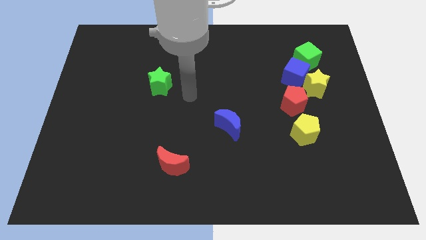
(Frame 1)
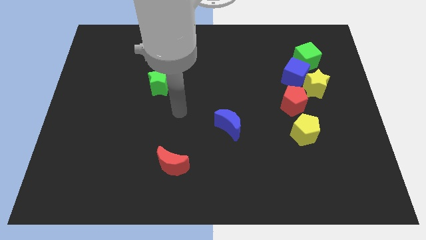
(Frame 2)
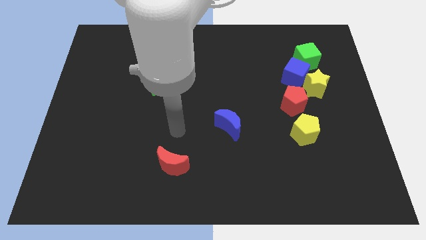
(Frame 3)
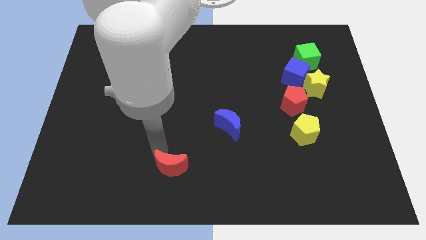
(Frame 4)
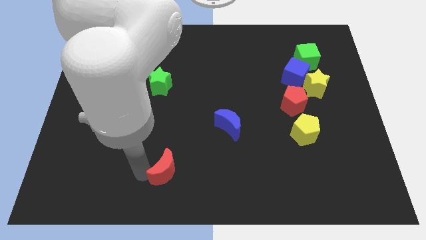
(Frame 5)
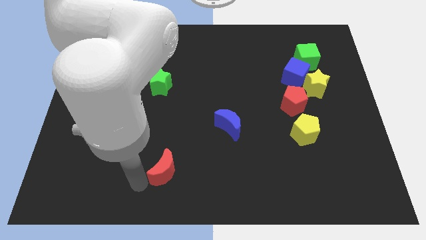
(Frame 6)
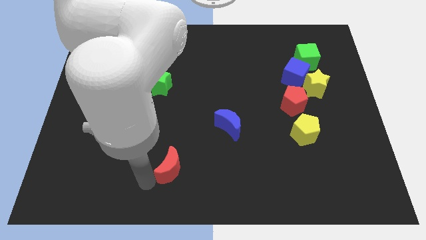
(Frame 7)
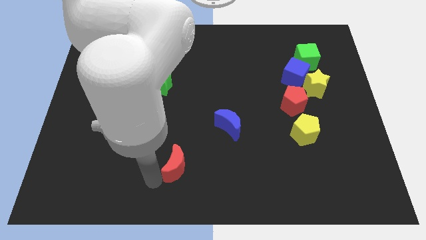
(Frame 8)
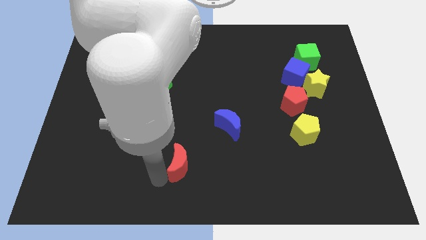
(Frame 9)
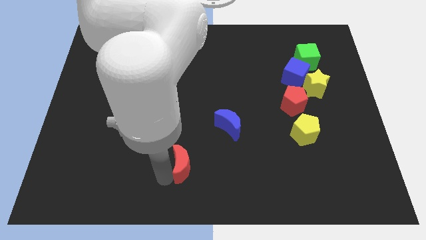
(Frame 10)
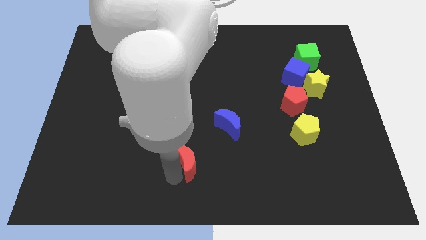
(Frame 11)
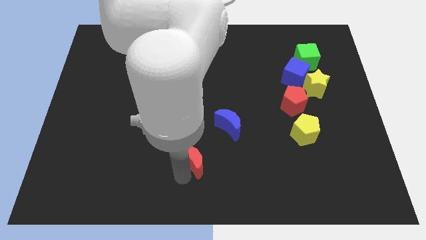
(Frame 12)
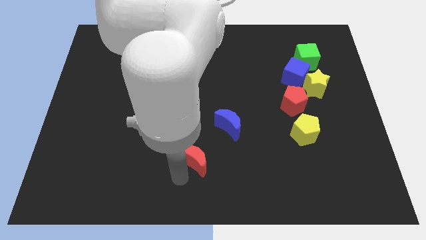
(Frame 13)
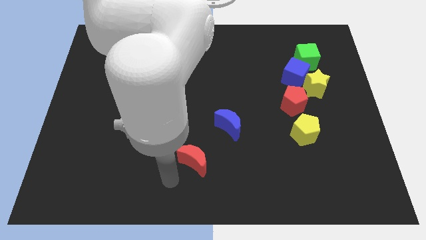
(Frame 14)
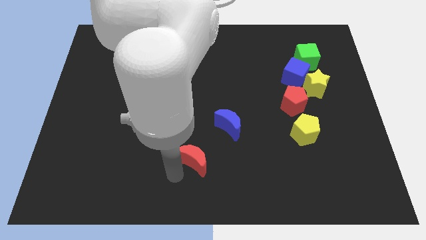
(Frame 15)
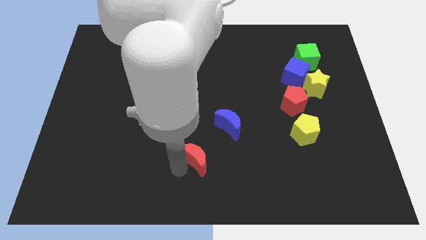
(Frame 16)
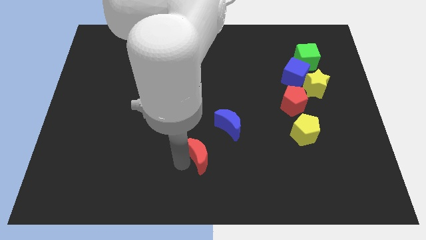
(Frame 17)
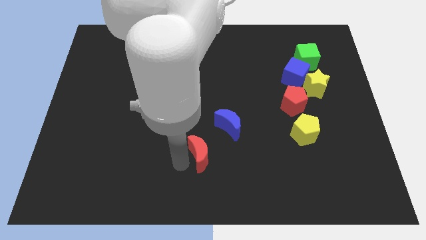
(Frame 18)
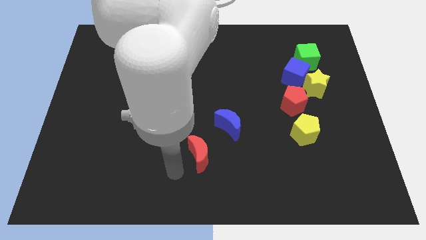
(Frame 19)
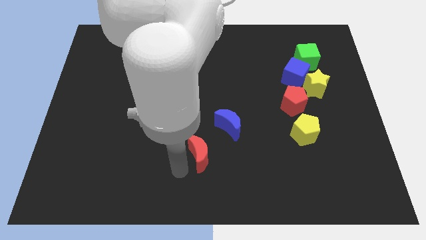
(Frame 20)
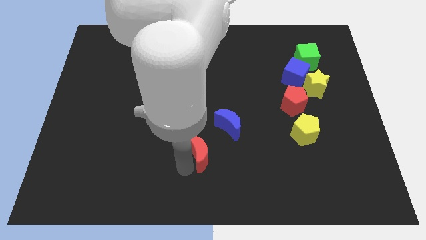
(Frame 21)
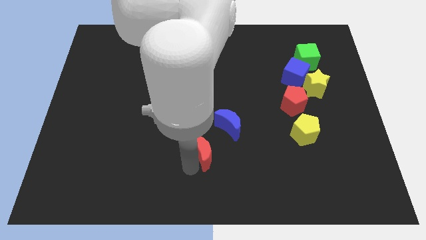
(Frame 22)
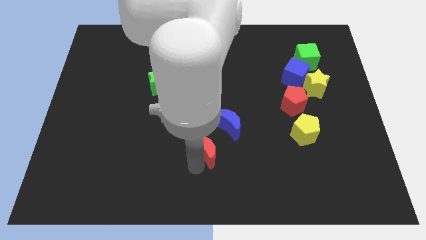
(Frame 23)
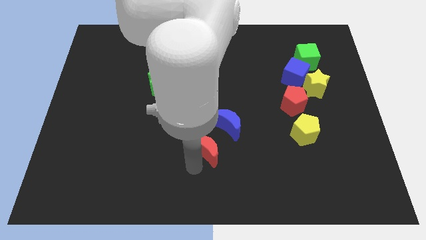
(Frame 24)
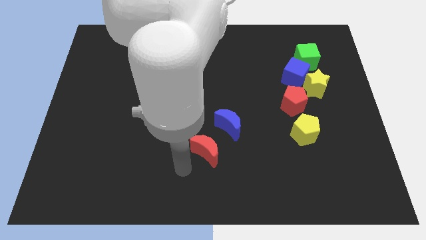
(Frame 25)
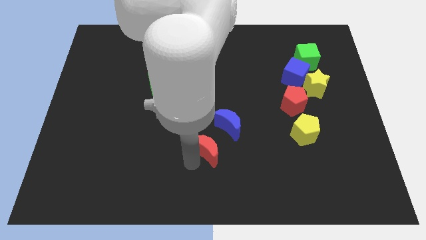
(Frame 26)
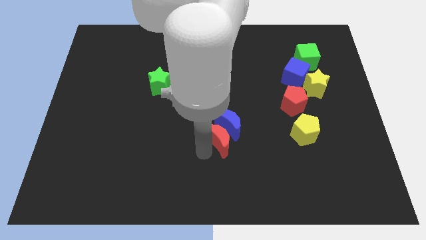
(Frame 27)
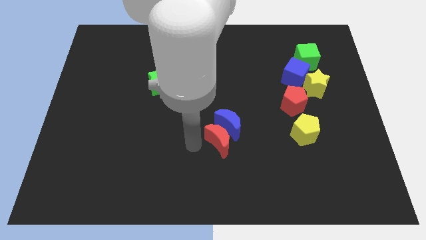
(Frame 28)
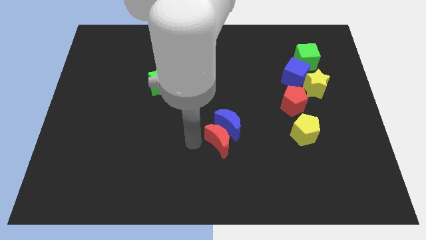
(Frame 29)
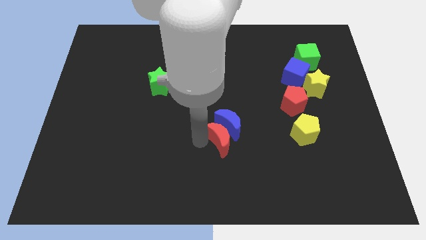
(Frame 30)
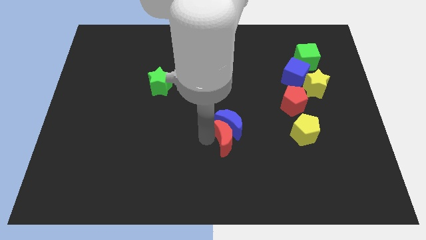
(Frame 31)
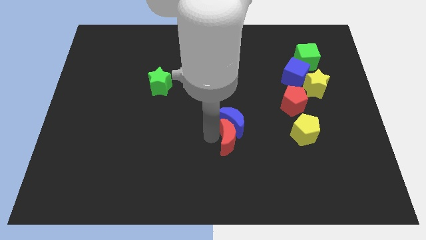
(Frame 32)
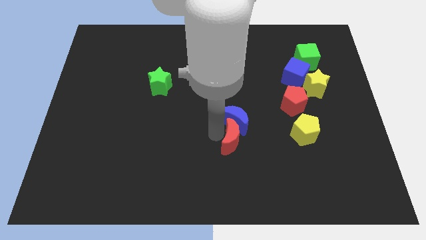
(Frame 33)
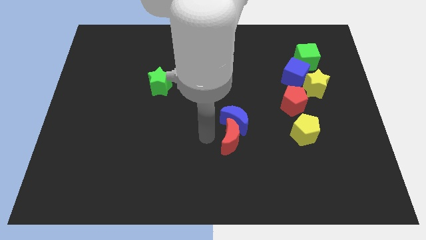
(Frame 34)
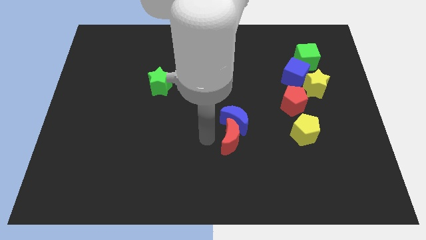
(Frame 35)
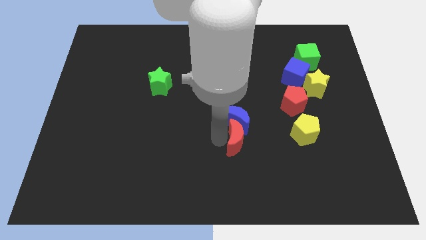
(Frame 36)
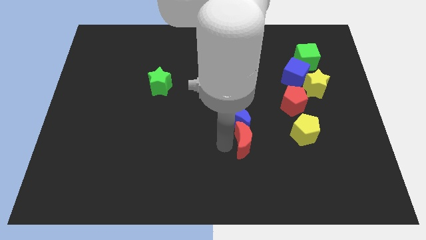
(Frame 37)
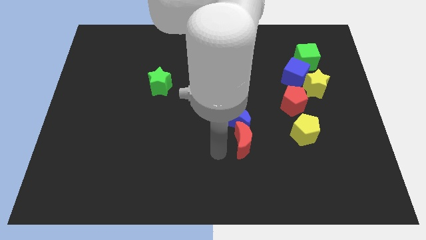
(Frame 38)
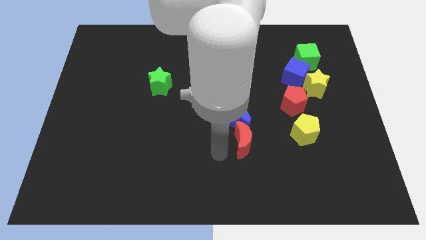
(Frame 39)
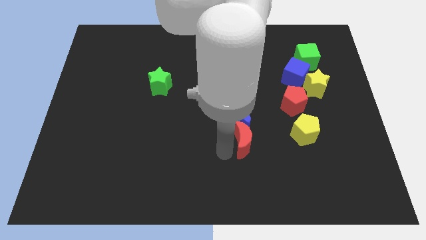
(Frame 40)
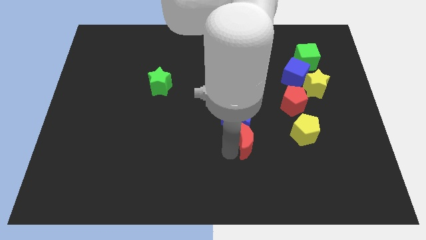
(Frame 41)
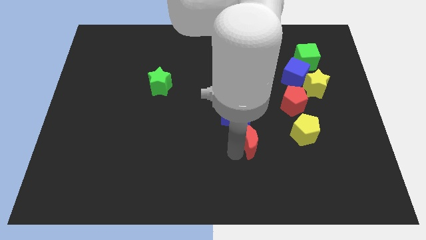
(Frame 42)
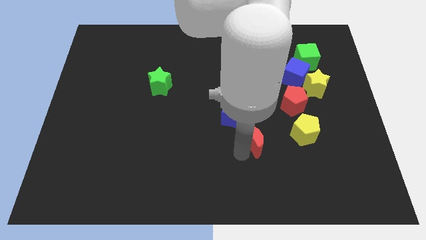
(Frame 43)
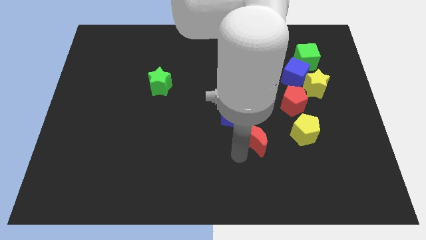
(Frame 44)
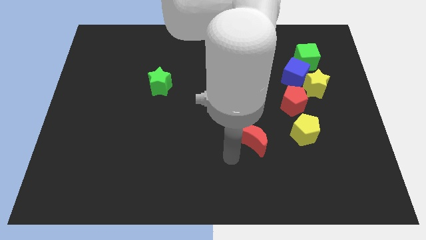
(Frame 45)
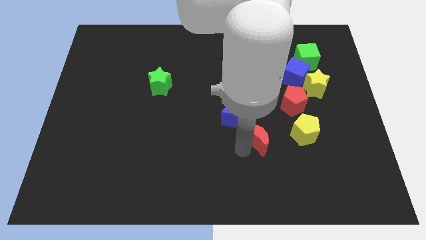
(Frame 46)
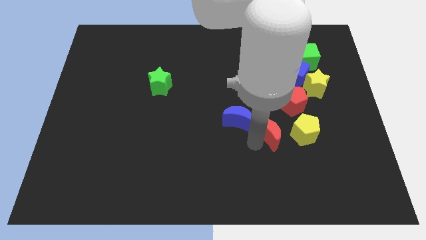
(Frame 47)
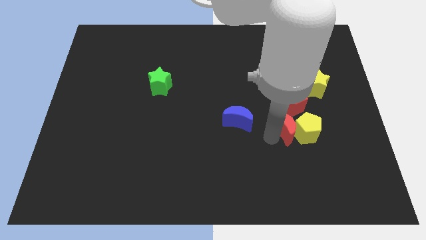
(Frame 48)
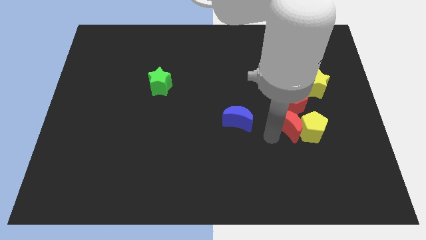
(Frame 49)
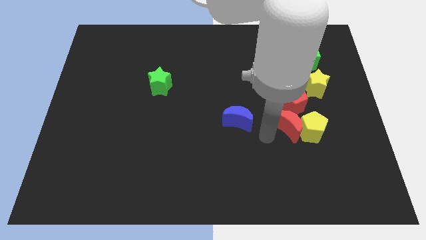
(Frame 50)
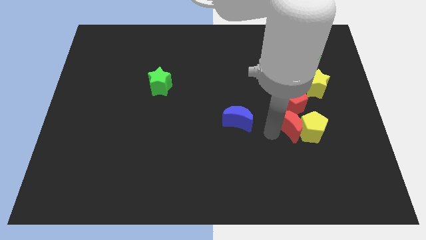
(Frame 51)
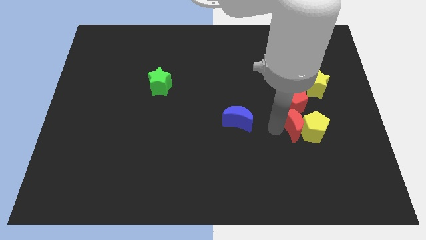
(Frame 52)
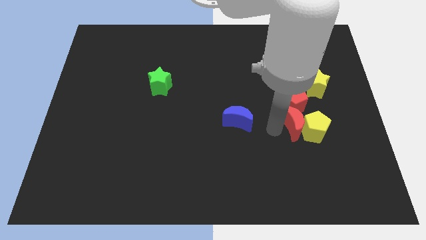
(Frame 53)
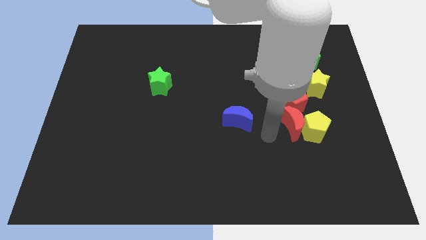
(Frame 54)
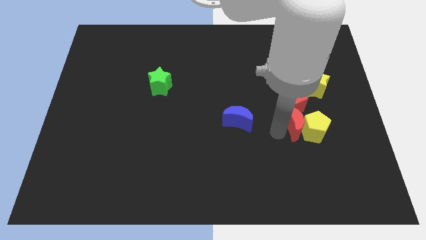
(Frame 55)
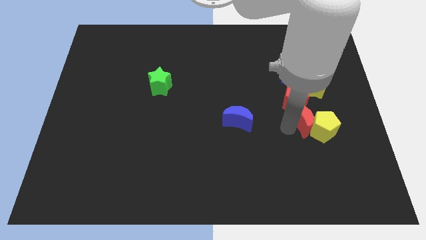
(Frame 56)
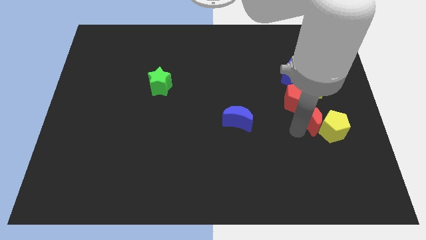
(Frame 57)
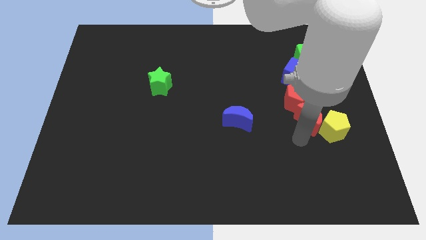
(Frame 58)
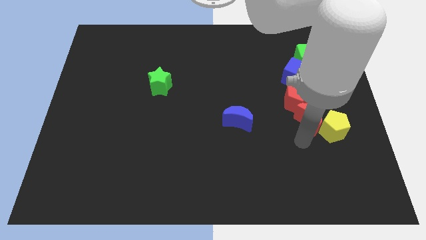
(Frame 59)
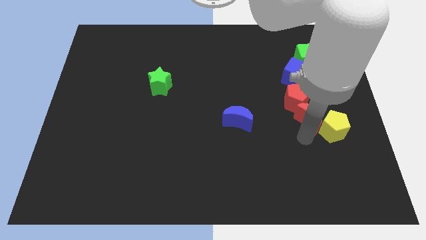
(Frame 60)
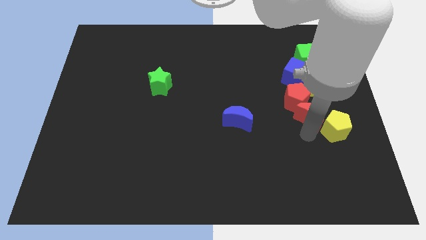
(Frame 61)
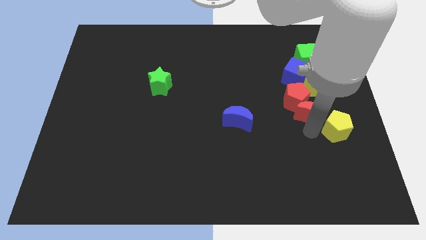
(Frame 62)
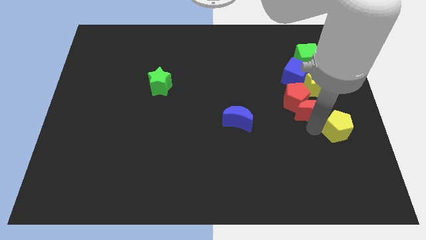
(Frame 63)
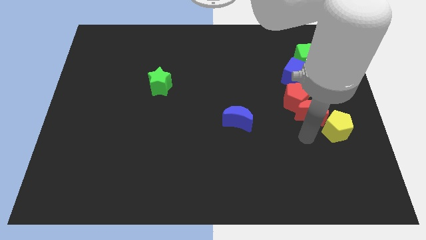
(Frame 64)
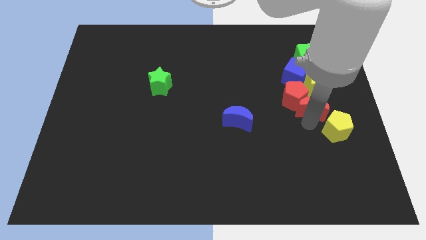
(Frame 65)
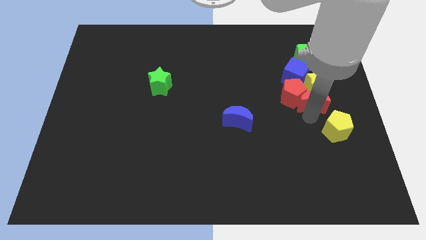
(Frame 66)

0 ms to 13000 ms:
put the red moon towards the yellow star
